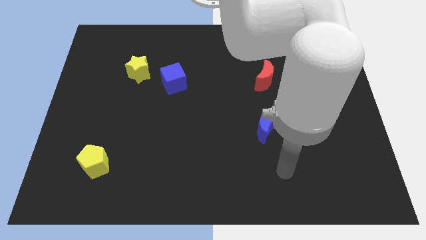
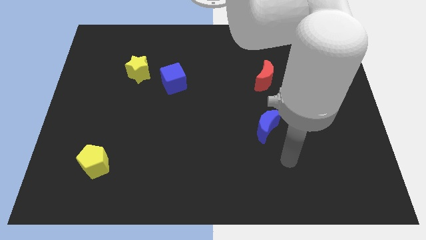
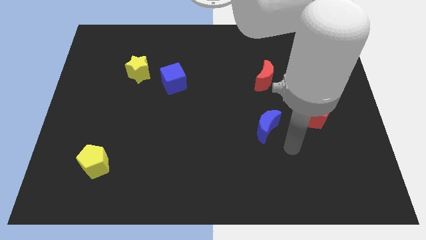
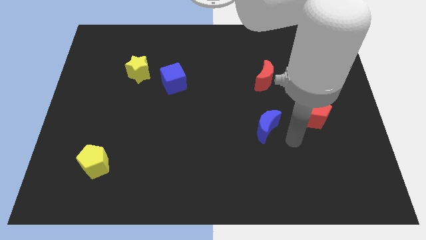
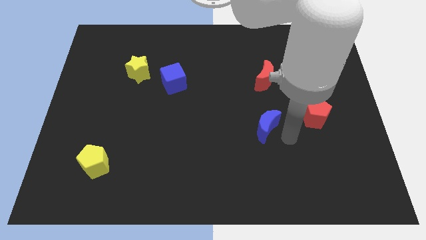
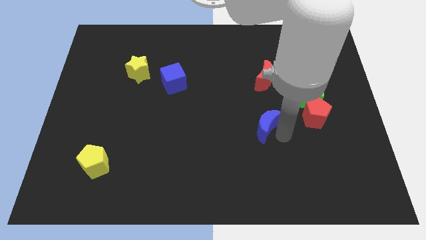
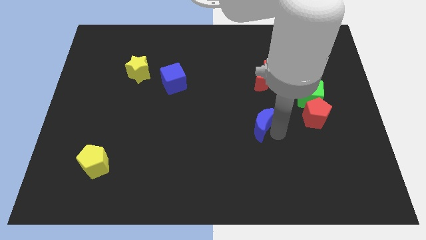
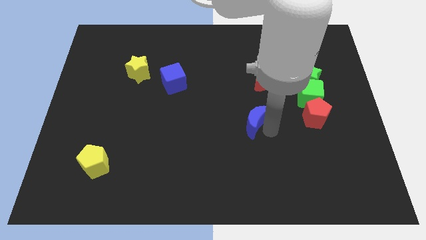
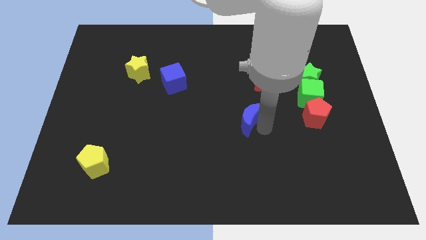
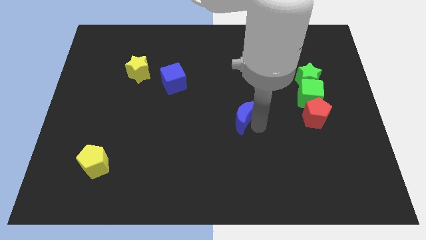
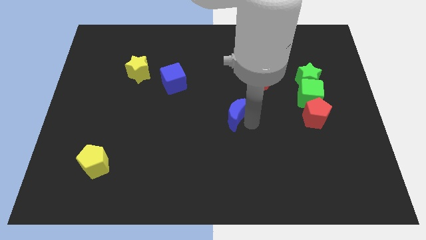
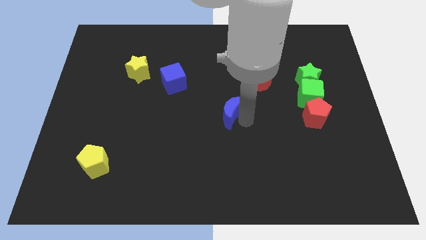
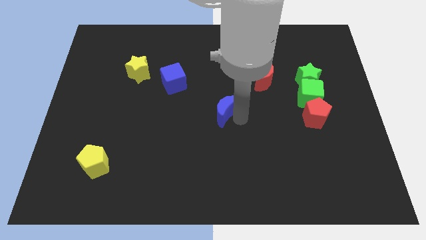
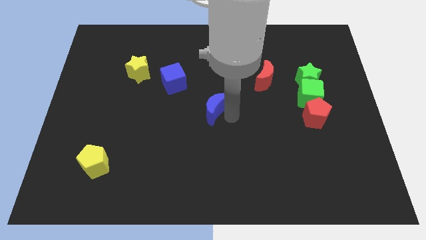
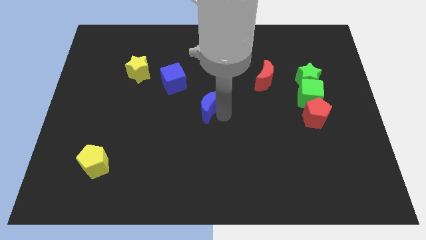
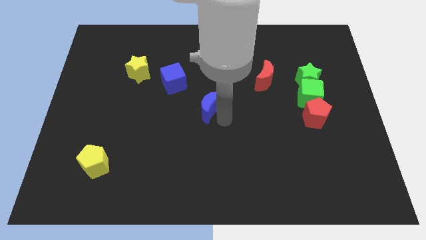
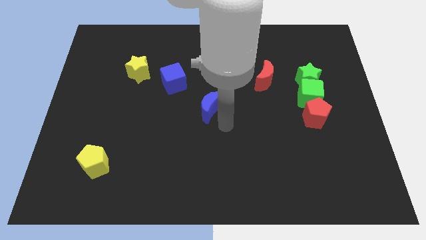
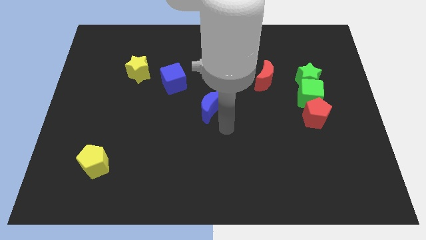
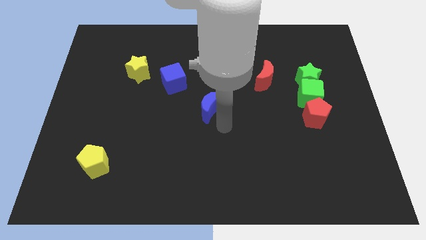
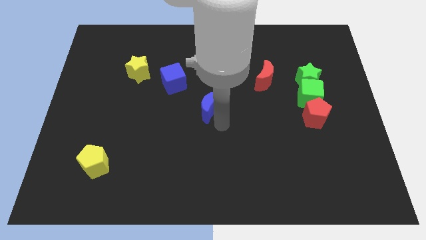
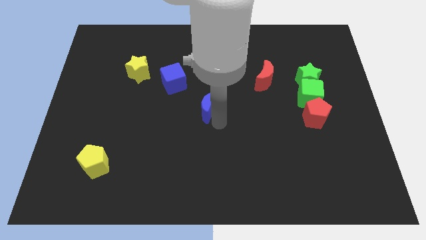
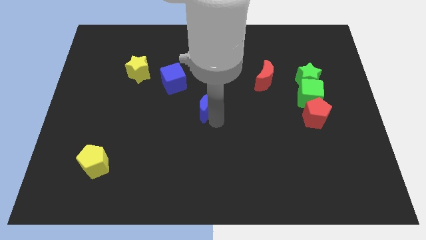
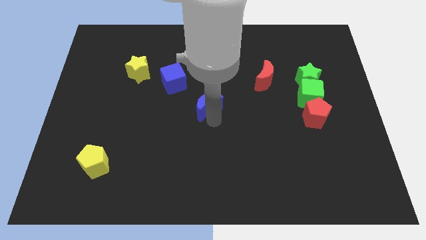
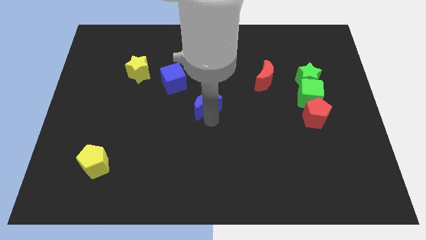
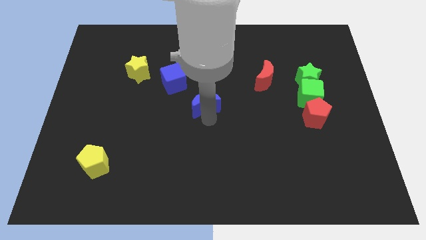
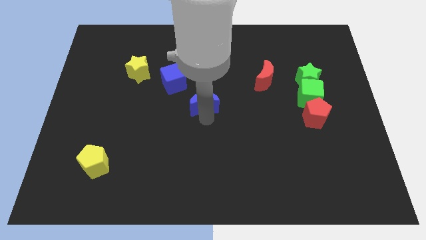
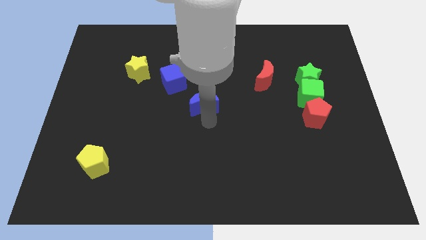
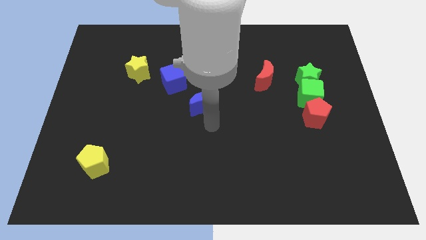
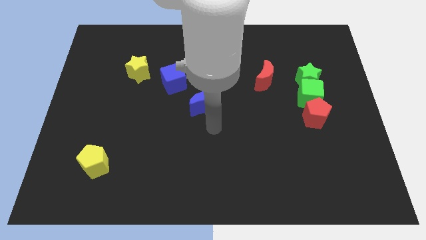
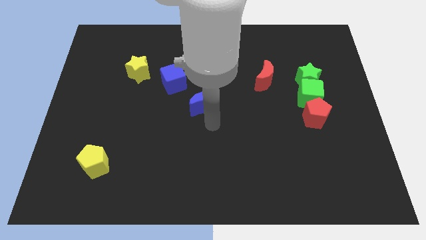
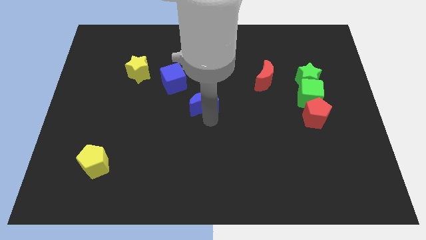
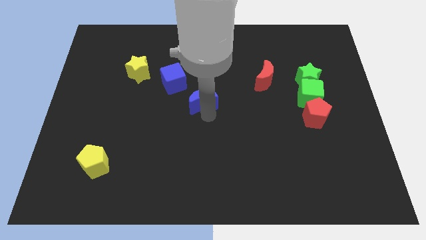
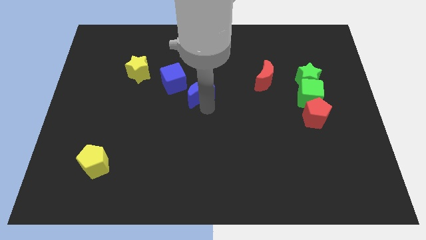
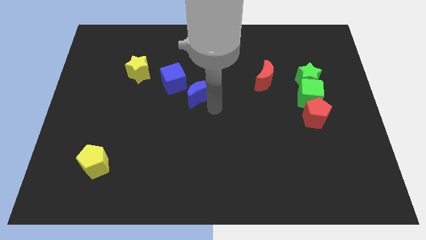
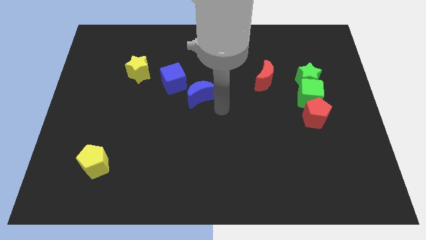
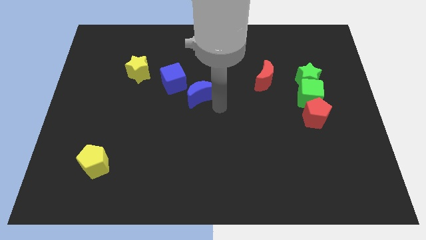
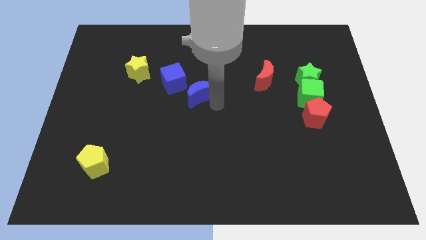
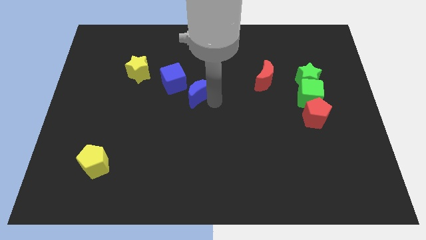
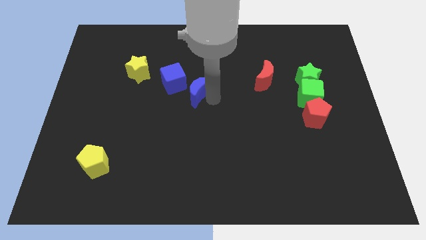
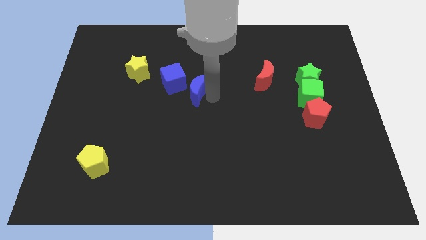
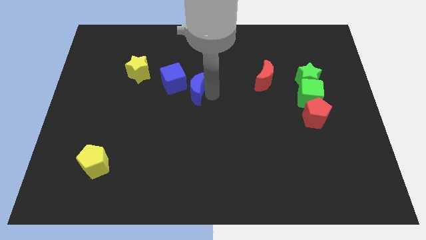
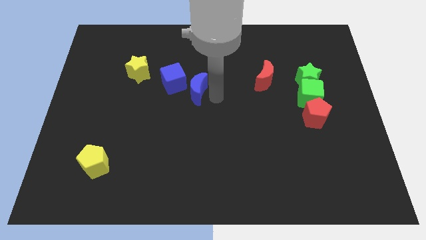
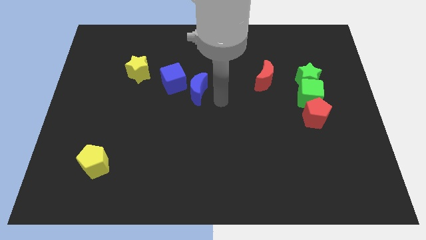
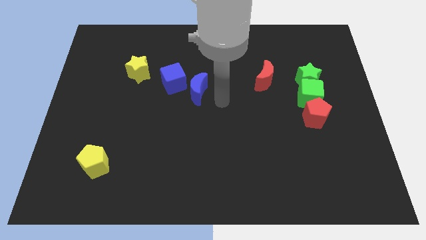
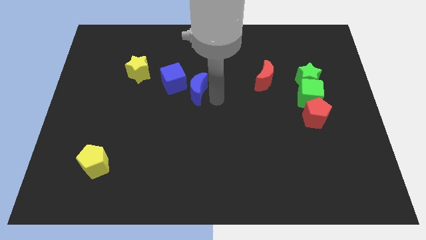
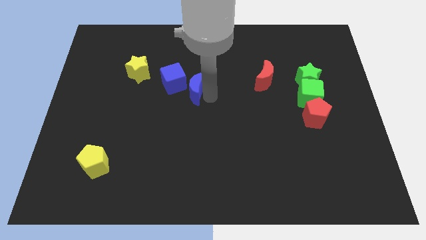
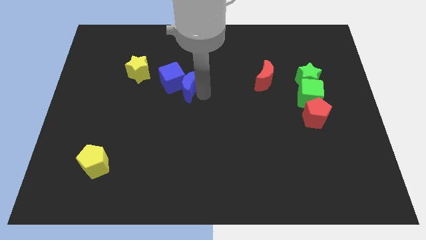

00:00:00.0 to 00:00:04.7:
slide the blue moon to the blue cube

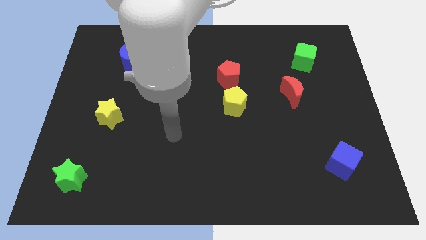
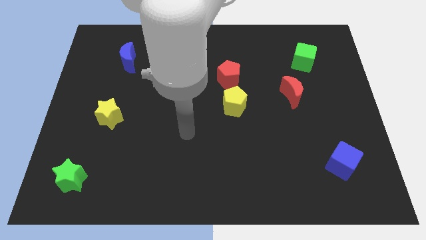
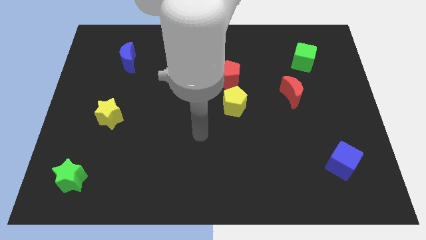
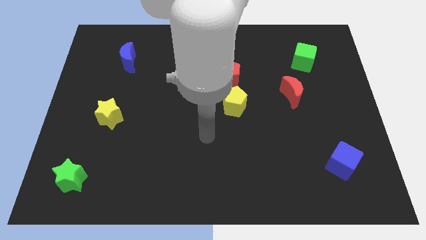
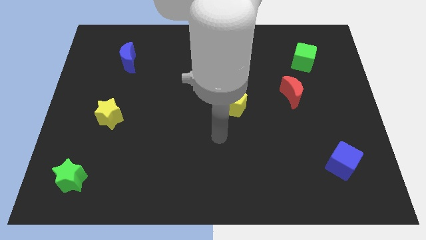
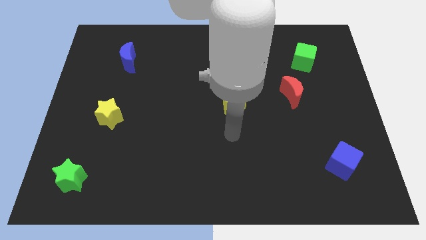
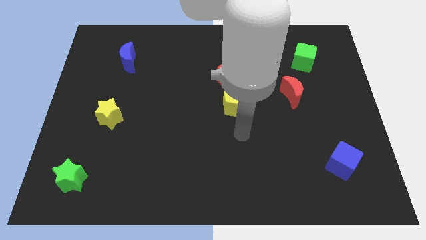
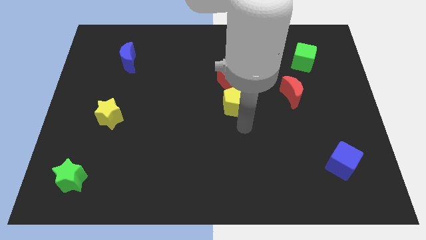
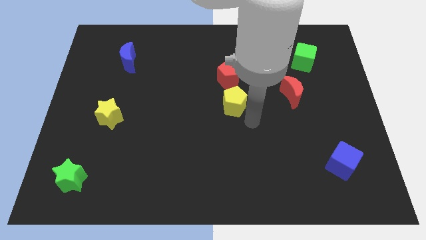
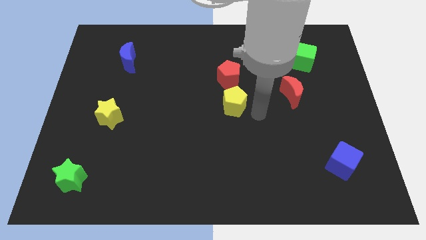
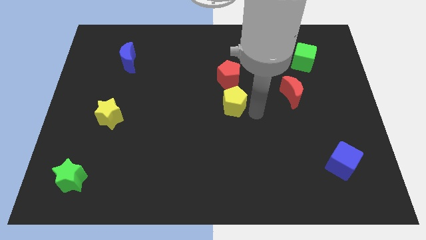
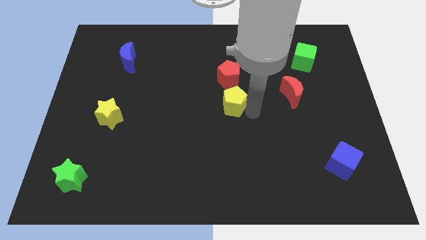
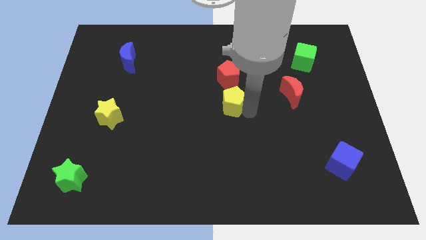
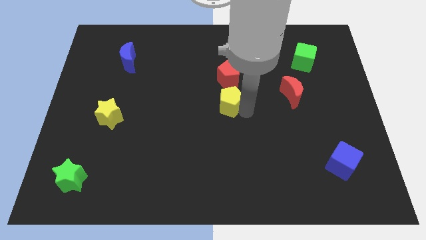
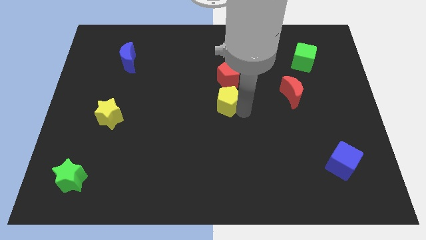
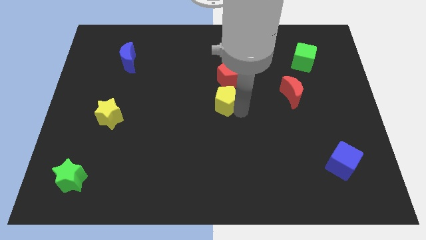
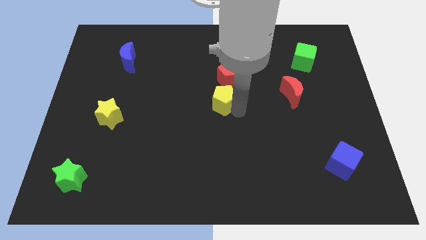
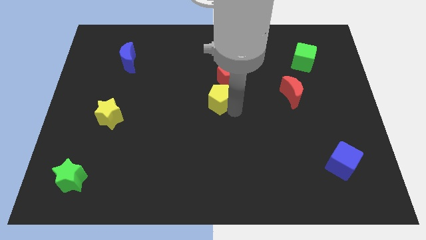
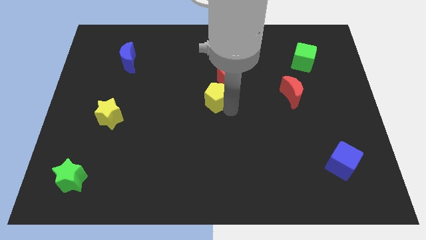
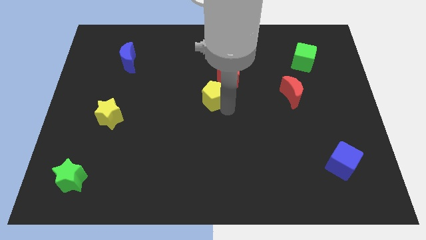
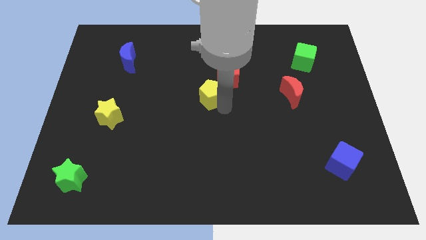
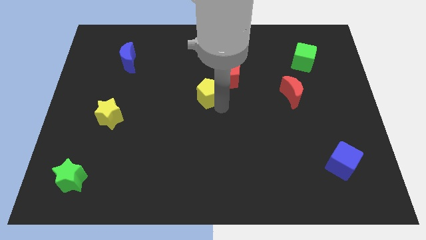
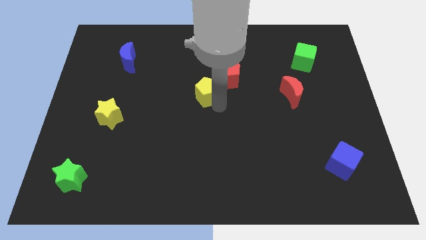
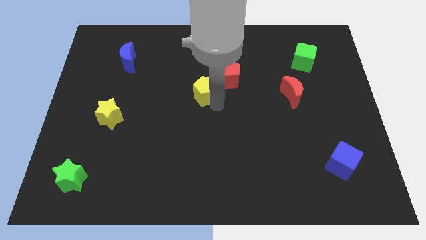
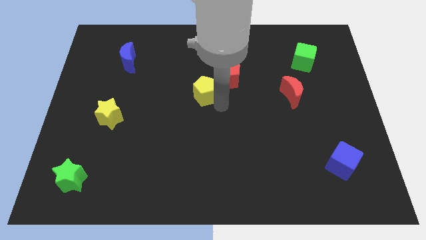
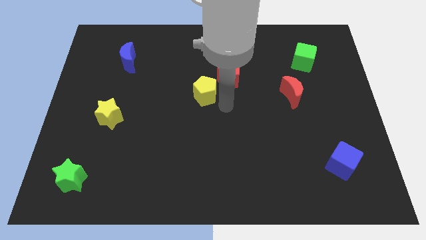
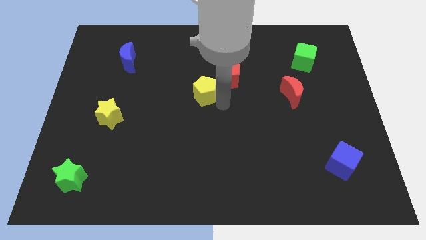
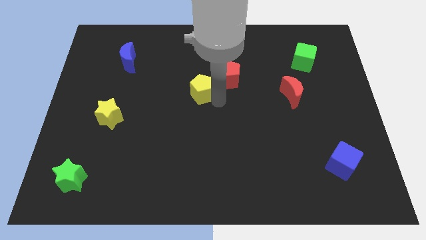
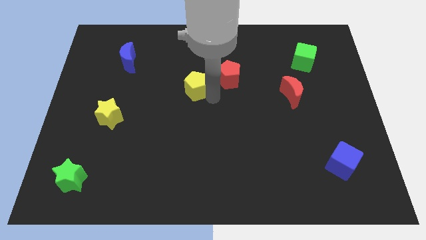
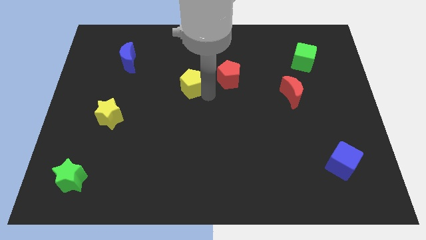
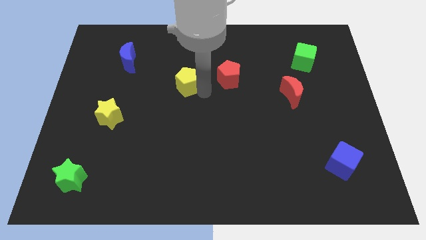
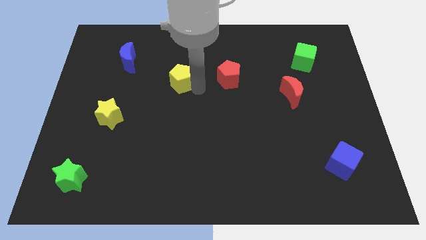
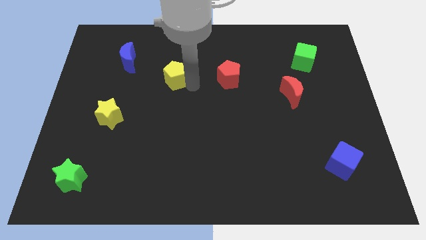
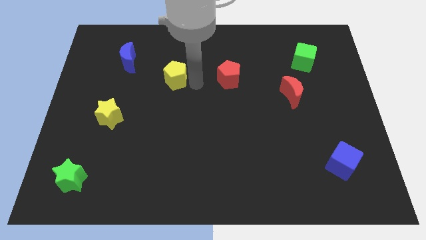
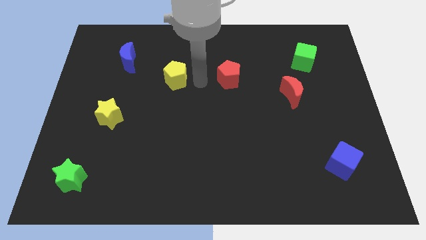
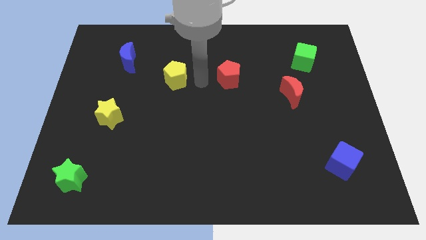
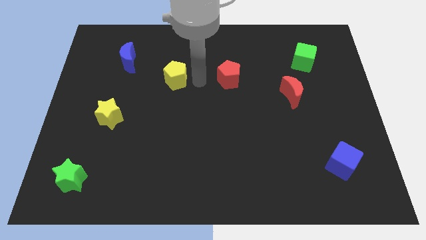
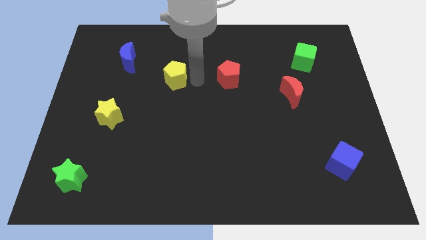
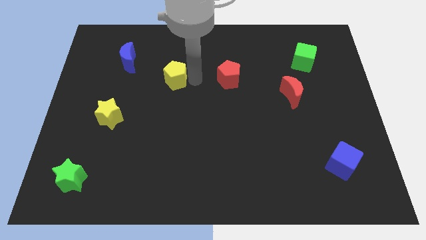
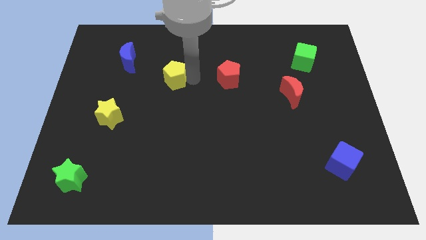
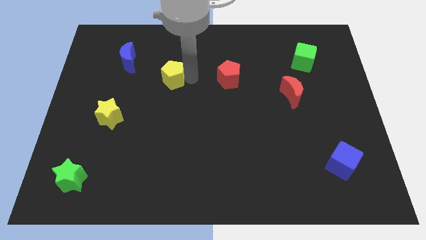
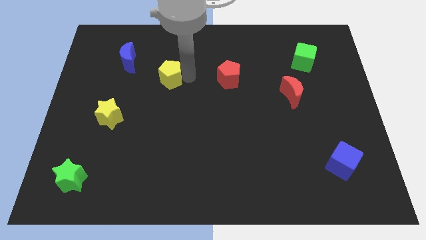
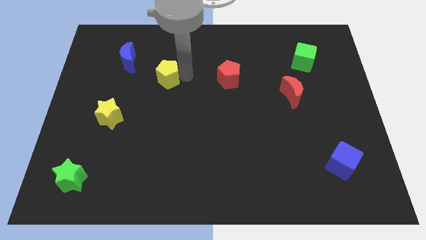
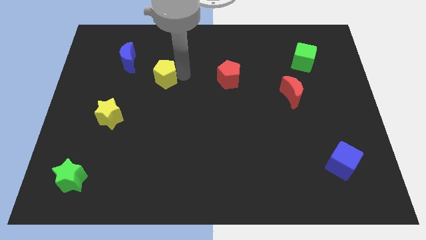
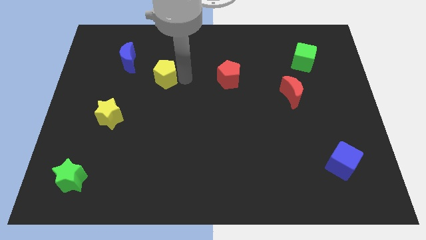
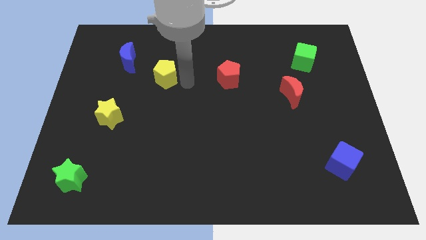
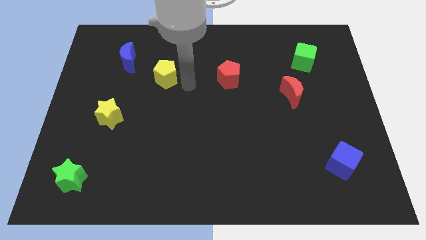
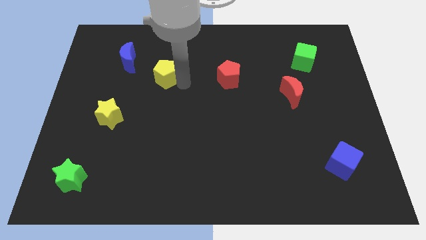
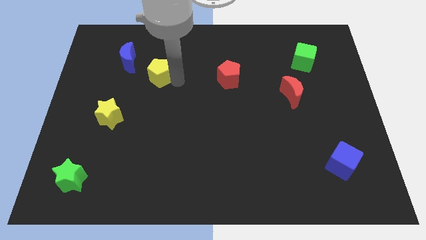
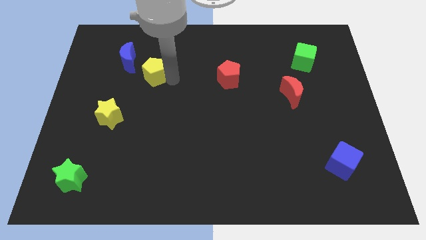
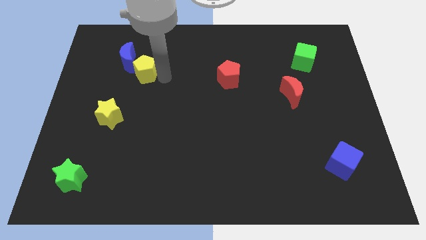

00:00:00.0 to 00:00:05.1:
put the yellow pentagon next to the blue moon
